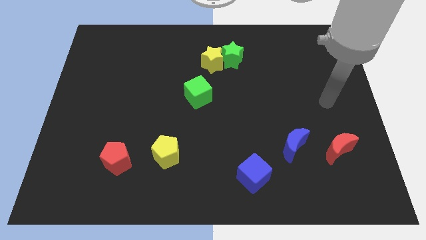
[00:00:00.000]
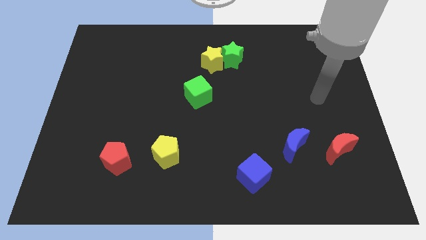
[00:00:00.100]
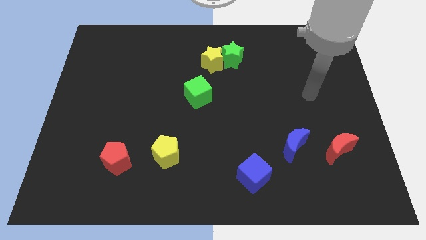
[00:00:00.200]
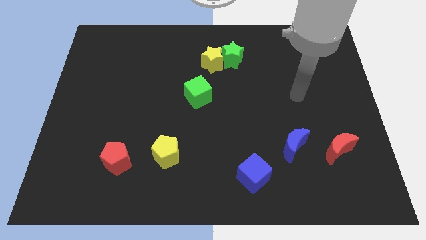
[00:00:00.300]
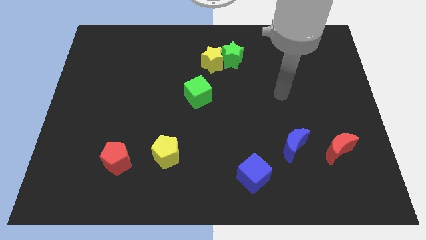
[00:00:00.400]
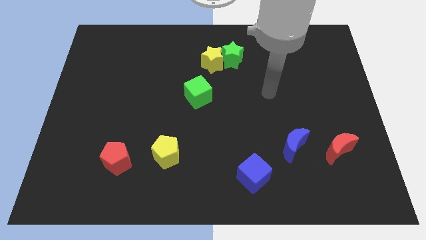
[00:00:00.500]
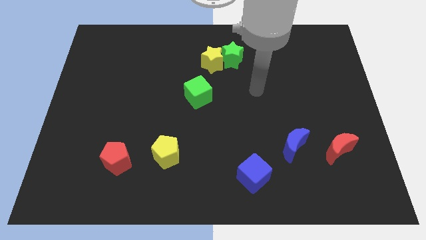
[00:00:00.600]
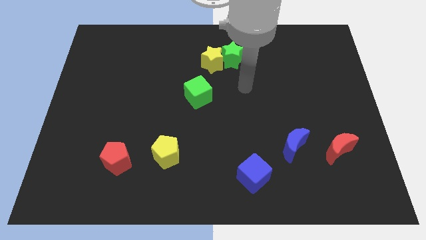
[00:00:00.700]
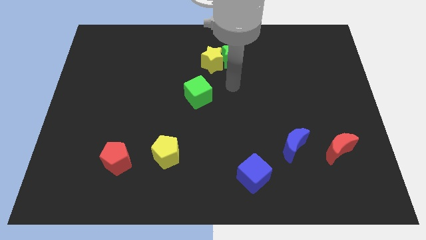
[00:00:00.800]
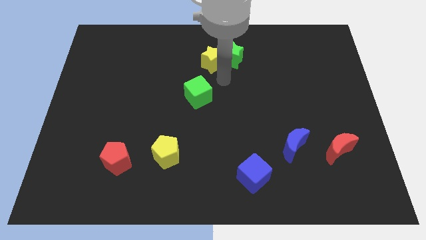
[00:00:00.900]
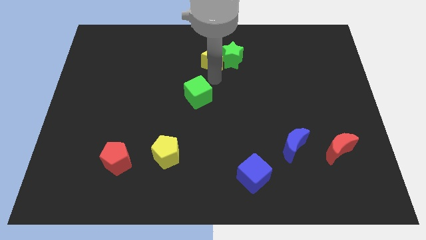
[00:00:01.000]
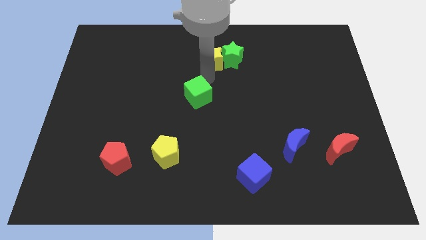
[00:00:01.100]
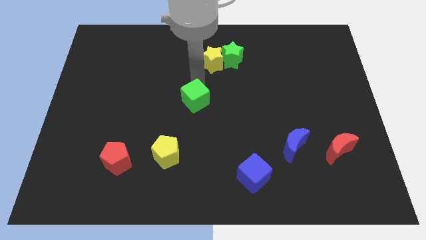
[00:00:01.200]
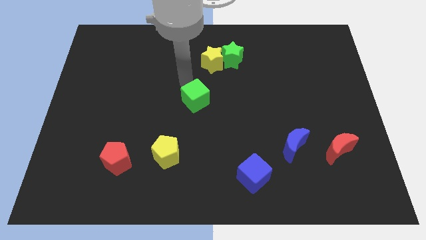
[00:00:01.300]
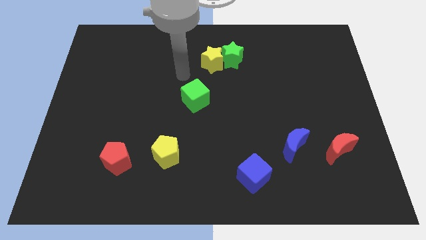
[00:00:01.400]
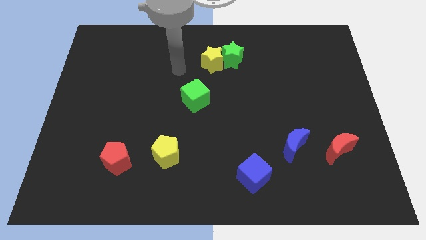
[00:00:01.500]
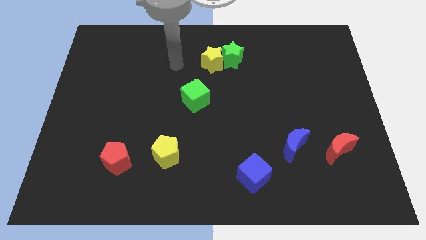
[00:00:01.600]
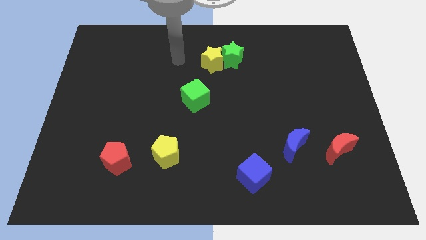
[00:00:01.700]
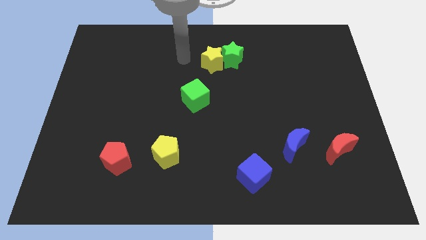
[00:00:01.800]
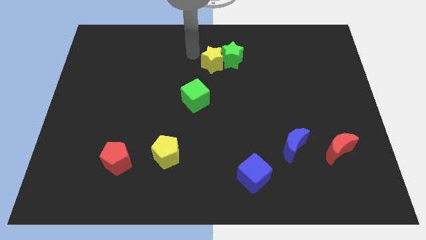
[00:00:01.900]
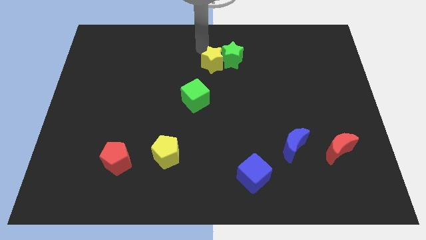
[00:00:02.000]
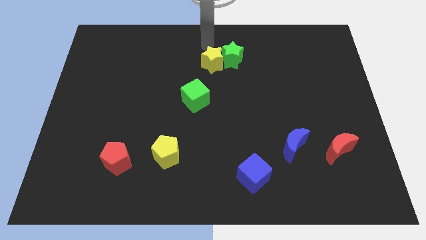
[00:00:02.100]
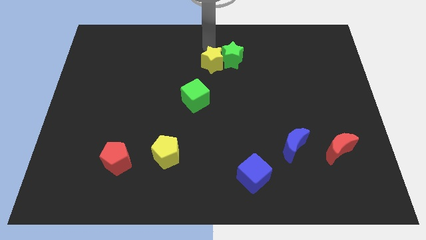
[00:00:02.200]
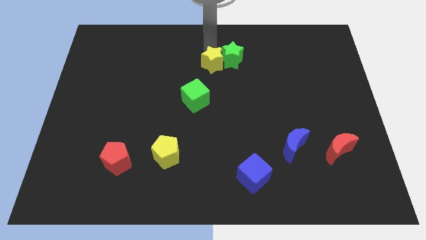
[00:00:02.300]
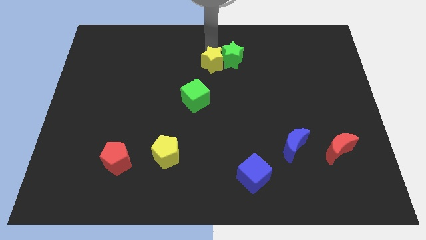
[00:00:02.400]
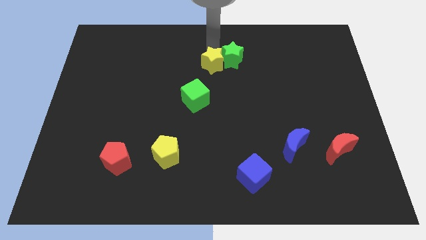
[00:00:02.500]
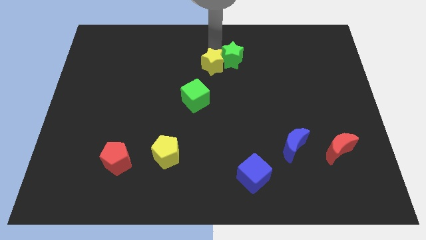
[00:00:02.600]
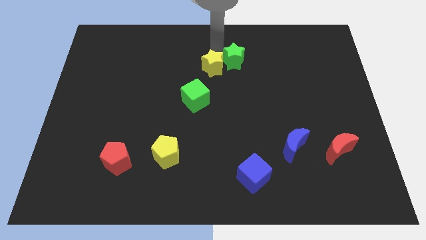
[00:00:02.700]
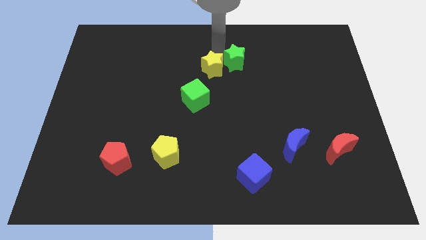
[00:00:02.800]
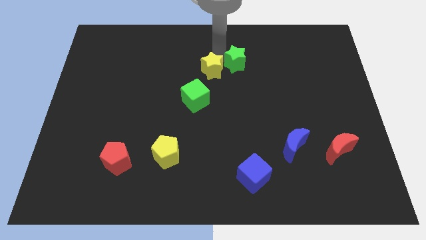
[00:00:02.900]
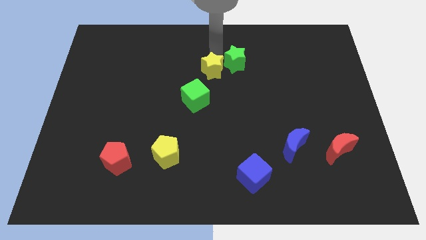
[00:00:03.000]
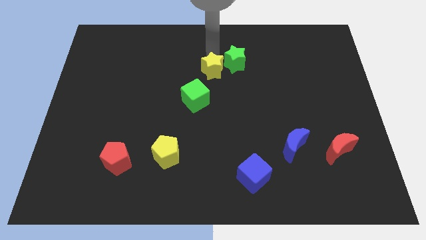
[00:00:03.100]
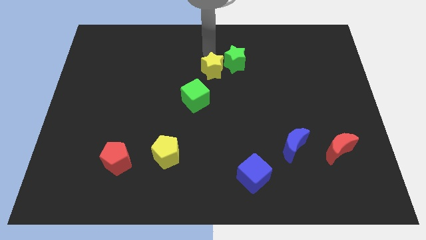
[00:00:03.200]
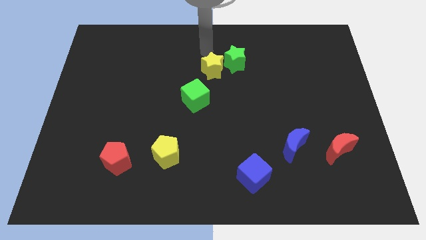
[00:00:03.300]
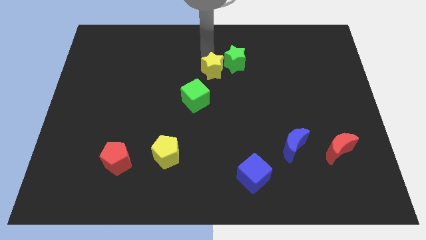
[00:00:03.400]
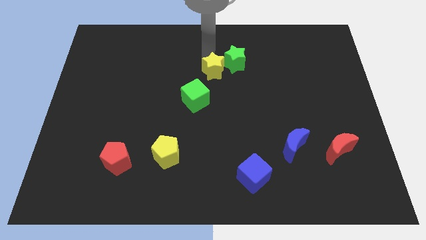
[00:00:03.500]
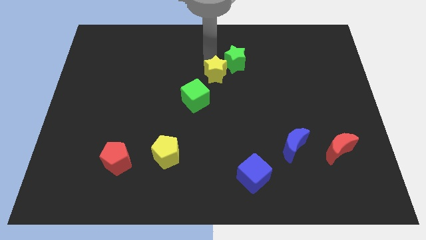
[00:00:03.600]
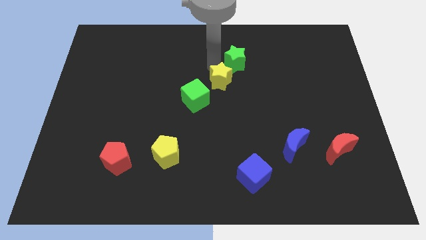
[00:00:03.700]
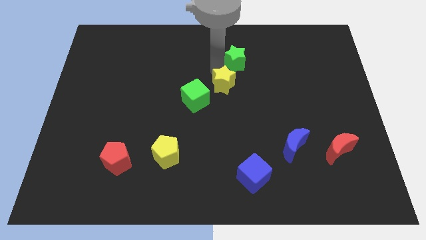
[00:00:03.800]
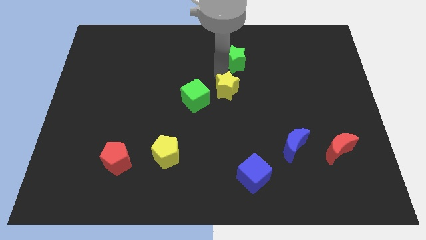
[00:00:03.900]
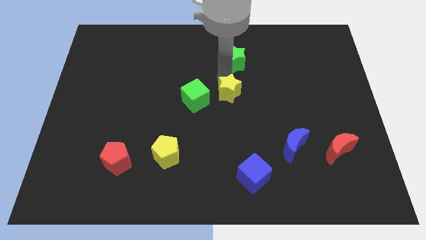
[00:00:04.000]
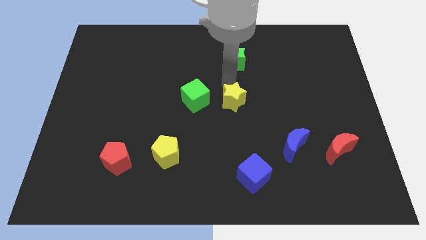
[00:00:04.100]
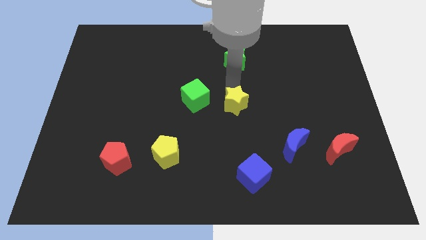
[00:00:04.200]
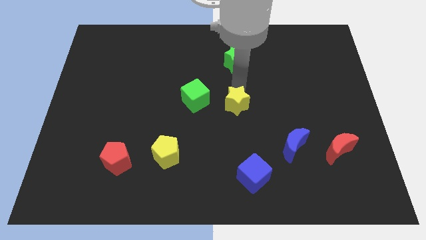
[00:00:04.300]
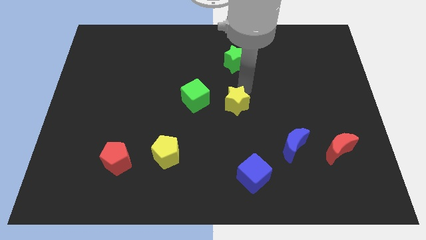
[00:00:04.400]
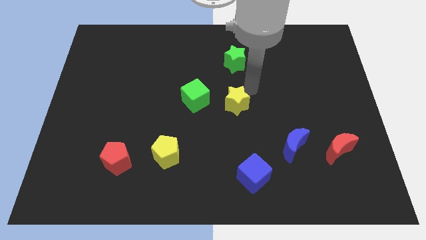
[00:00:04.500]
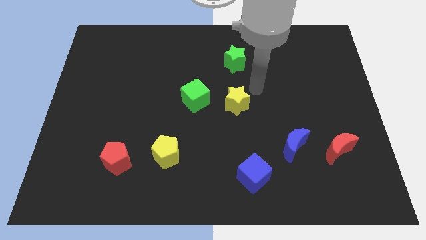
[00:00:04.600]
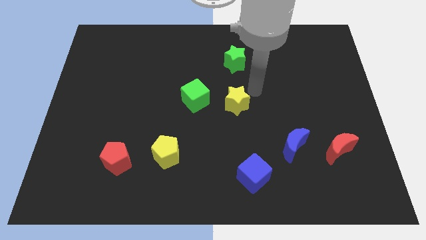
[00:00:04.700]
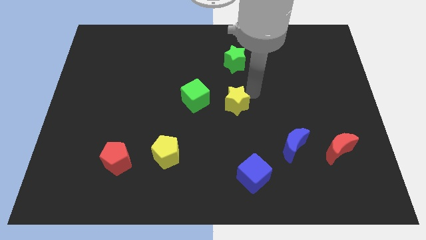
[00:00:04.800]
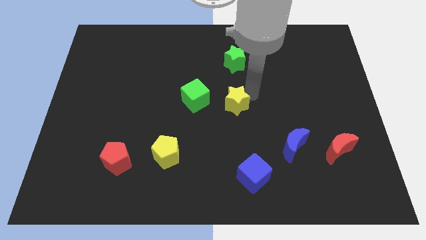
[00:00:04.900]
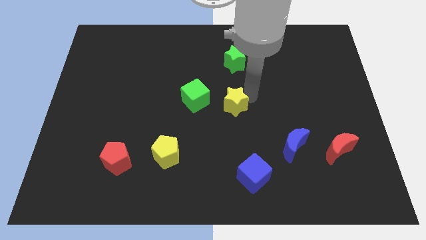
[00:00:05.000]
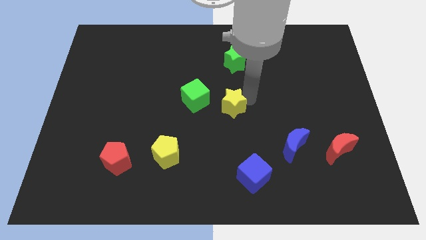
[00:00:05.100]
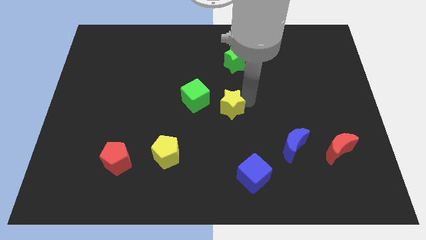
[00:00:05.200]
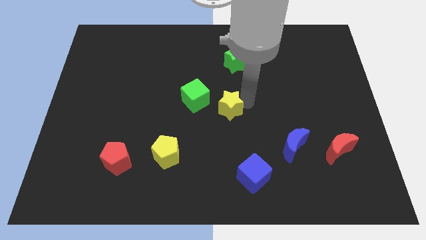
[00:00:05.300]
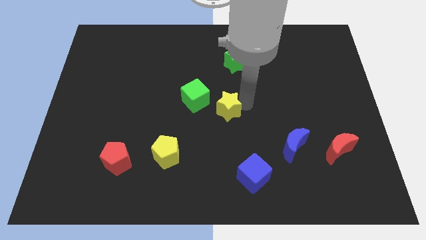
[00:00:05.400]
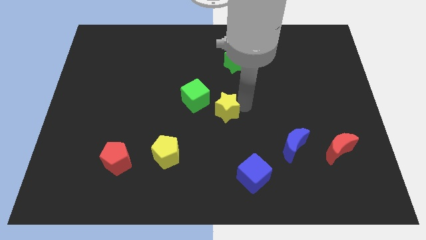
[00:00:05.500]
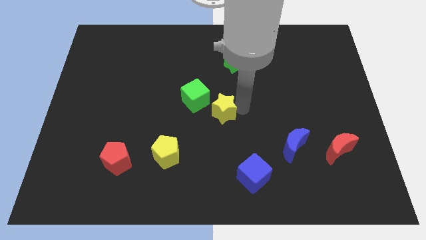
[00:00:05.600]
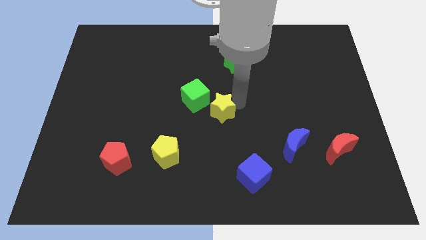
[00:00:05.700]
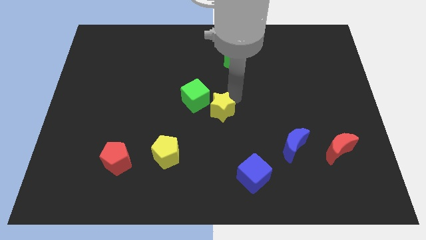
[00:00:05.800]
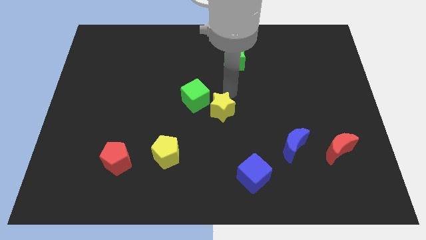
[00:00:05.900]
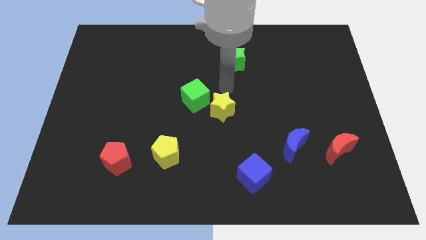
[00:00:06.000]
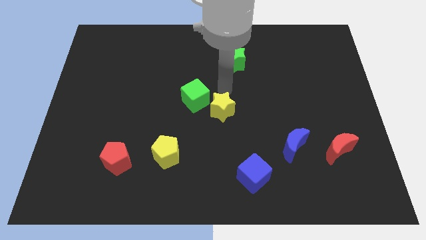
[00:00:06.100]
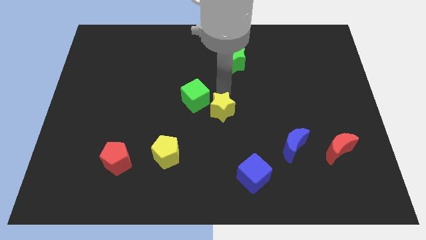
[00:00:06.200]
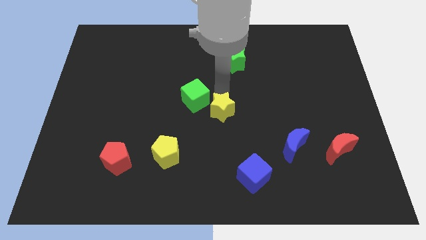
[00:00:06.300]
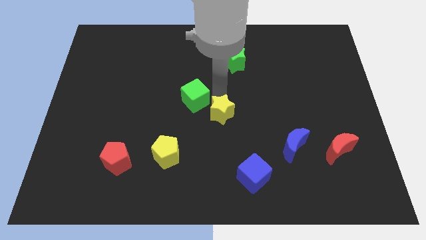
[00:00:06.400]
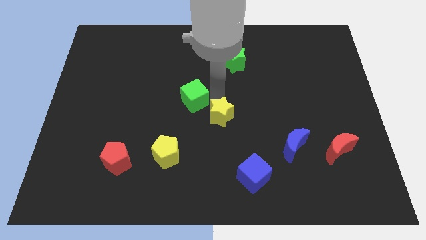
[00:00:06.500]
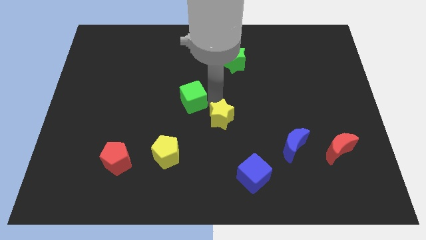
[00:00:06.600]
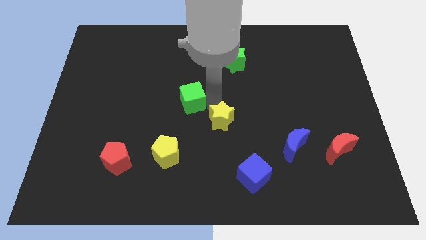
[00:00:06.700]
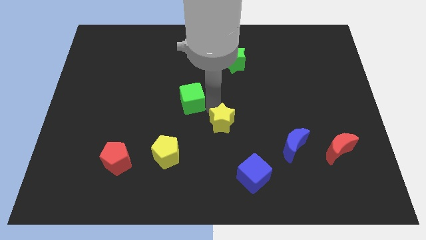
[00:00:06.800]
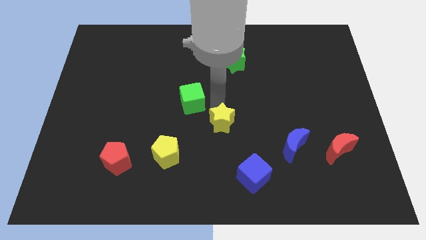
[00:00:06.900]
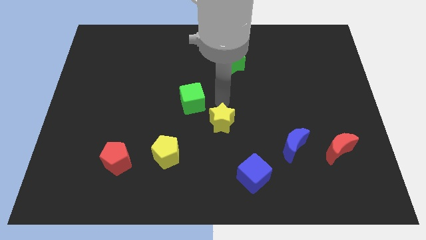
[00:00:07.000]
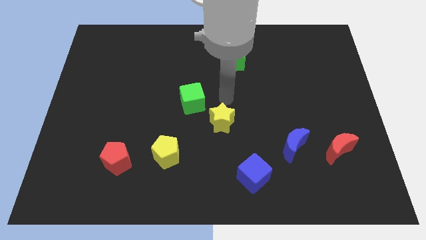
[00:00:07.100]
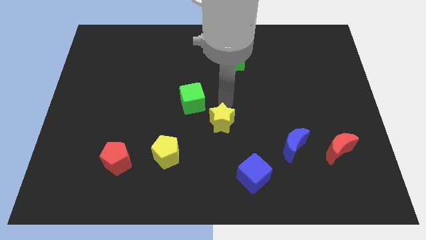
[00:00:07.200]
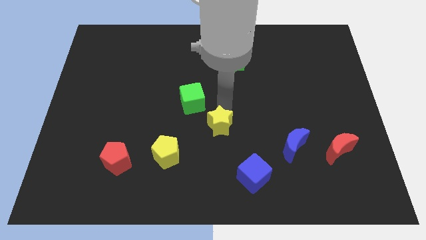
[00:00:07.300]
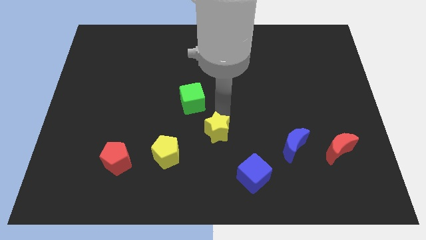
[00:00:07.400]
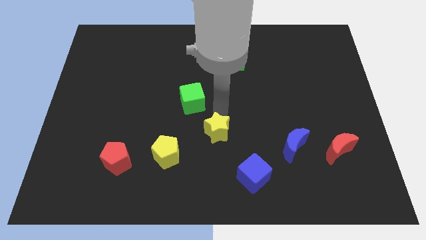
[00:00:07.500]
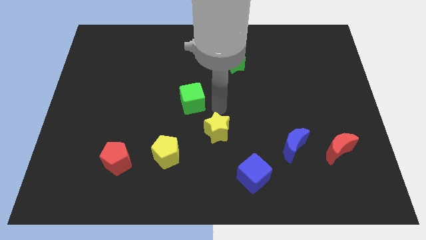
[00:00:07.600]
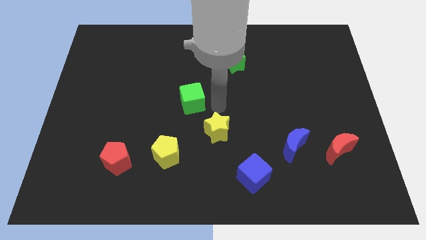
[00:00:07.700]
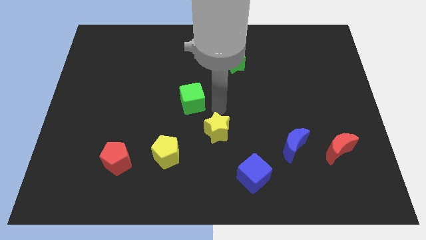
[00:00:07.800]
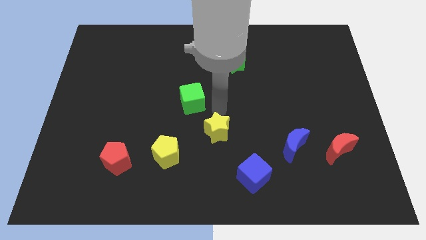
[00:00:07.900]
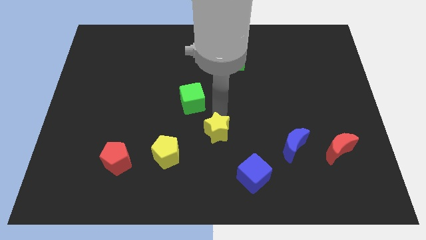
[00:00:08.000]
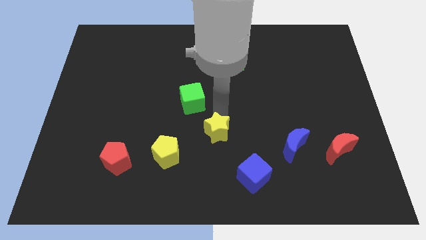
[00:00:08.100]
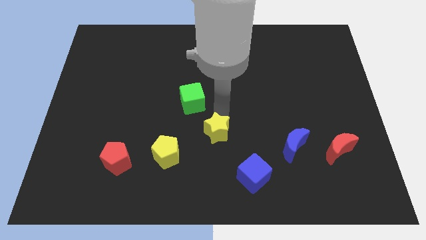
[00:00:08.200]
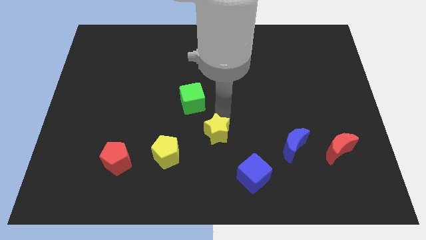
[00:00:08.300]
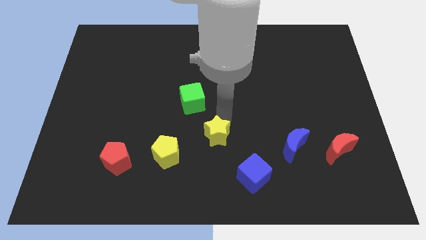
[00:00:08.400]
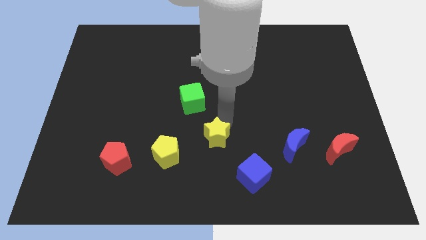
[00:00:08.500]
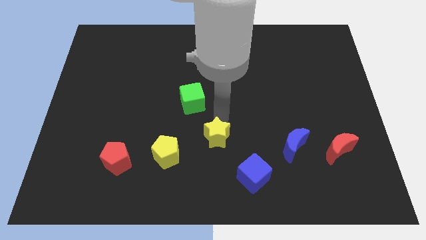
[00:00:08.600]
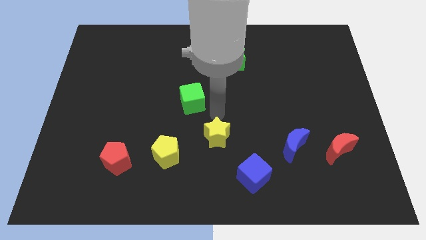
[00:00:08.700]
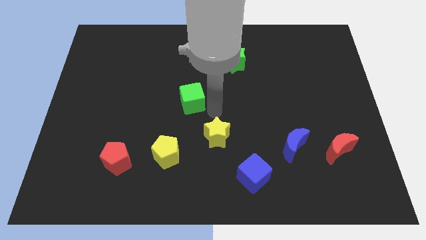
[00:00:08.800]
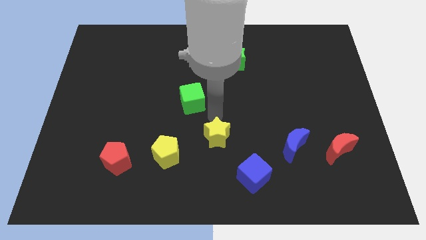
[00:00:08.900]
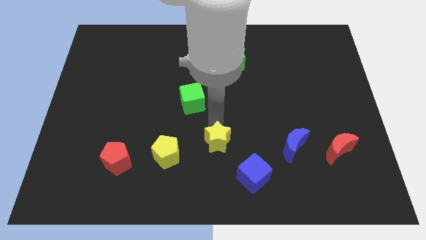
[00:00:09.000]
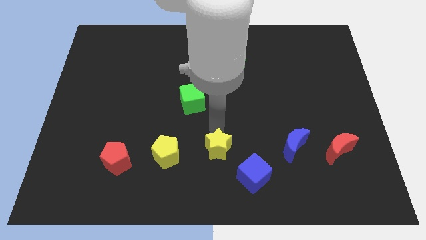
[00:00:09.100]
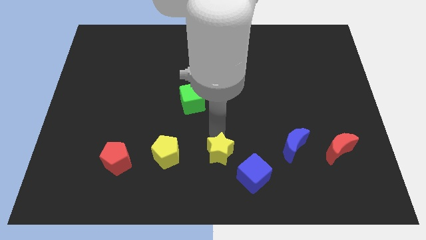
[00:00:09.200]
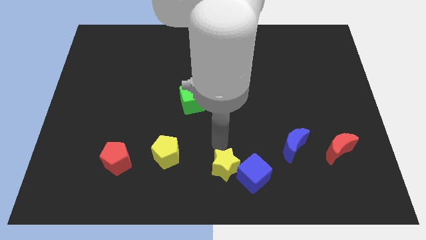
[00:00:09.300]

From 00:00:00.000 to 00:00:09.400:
put the yellow star to the bottom side
